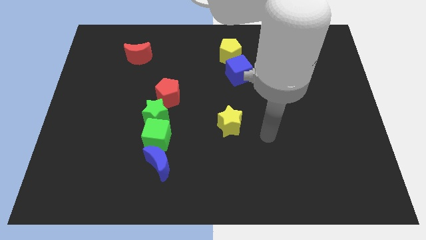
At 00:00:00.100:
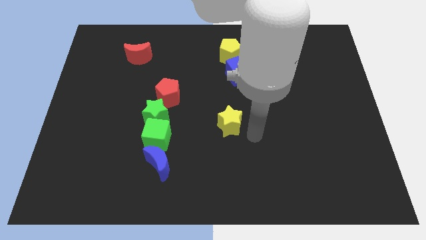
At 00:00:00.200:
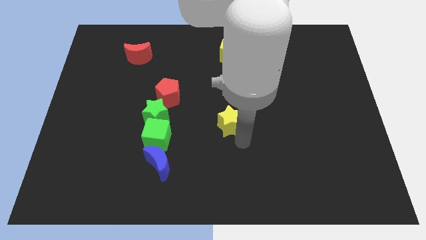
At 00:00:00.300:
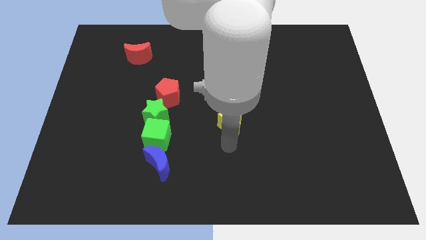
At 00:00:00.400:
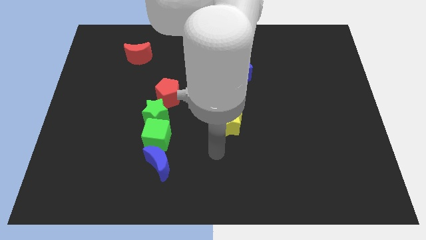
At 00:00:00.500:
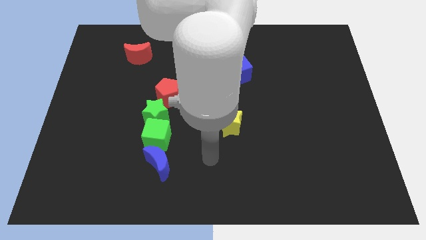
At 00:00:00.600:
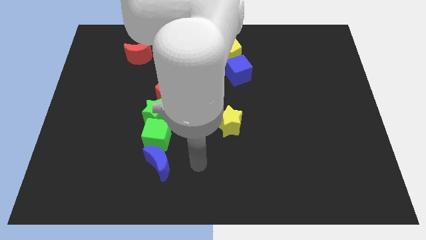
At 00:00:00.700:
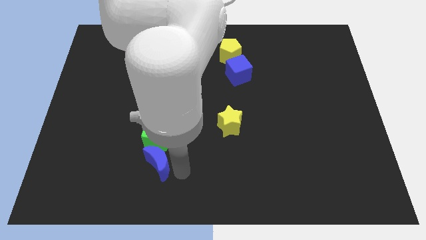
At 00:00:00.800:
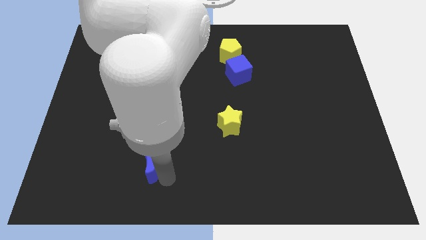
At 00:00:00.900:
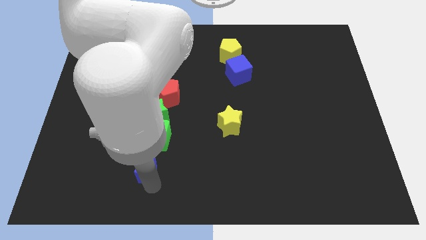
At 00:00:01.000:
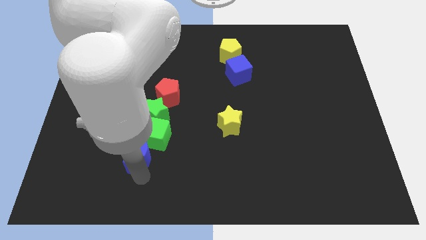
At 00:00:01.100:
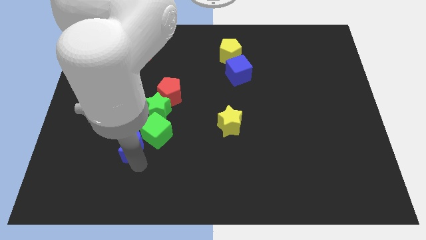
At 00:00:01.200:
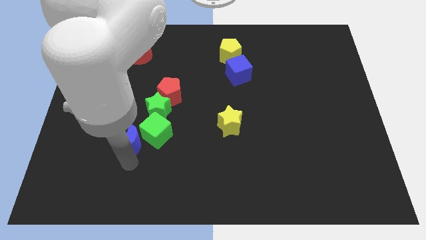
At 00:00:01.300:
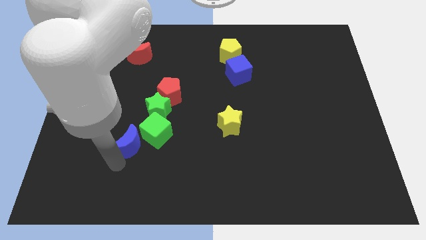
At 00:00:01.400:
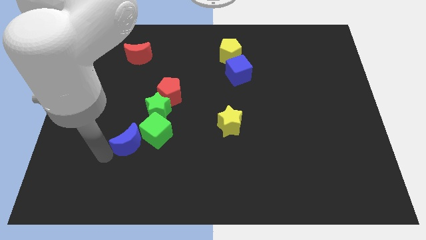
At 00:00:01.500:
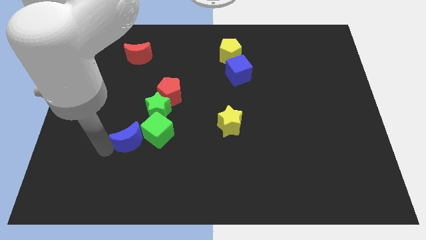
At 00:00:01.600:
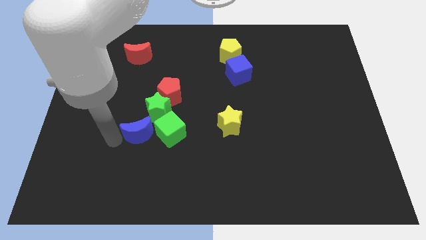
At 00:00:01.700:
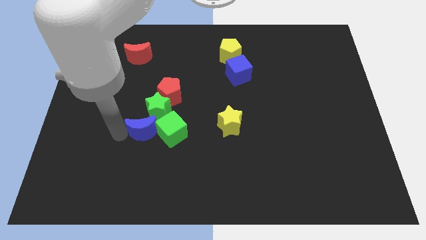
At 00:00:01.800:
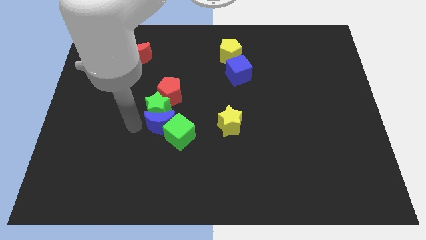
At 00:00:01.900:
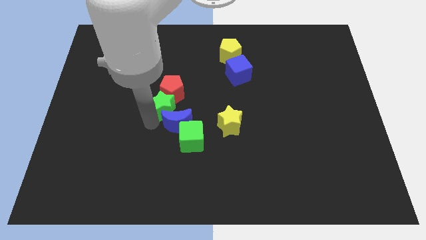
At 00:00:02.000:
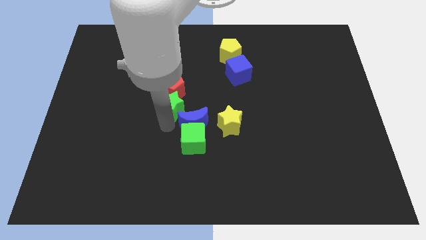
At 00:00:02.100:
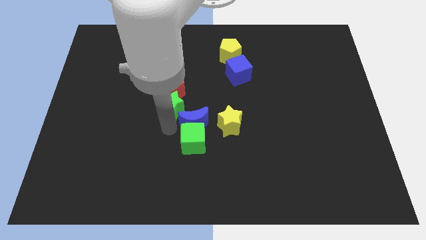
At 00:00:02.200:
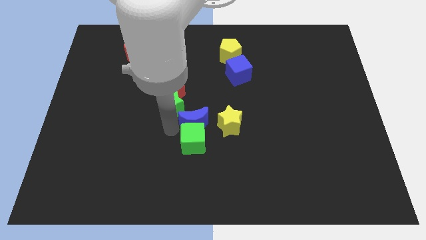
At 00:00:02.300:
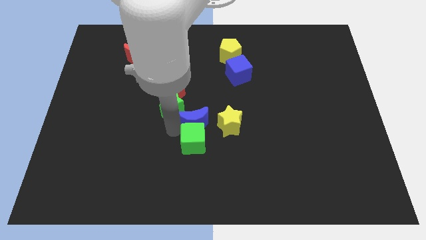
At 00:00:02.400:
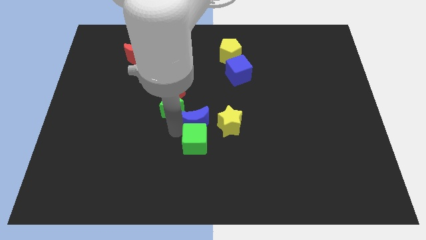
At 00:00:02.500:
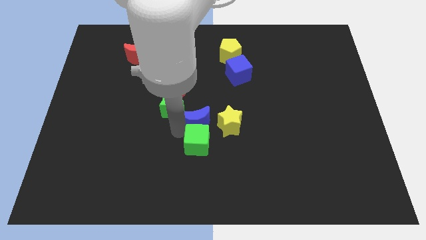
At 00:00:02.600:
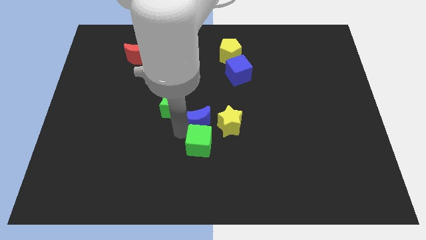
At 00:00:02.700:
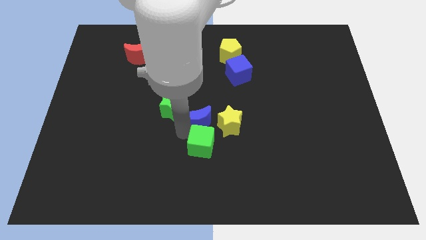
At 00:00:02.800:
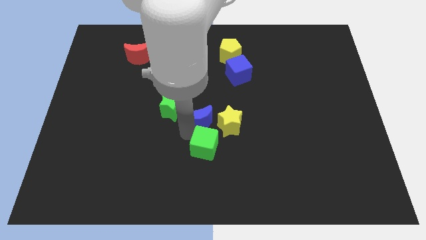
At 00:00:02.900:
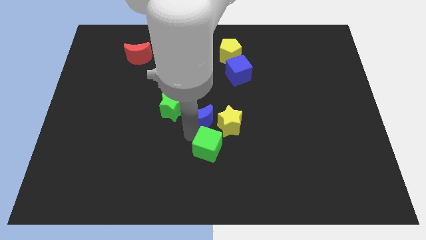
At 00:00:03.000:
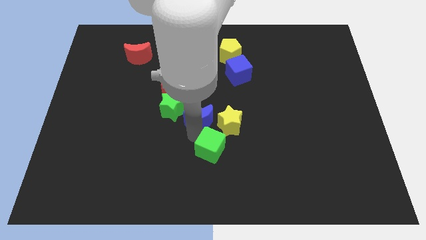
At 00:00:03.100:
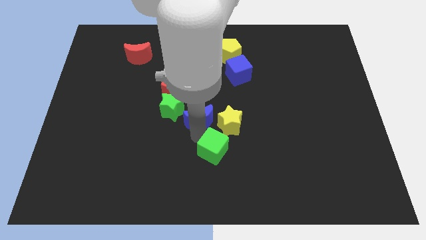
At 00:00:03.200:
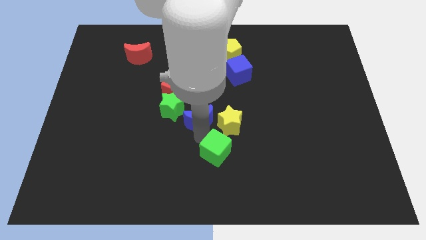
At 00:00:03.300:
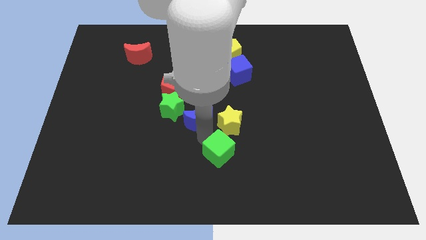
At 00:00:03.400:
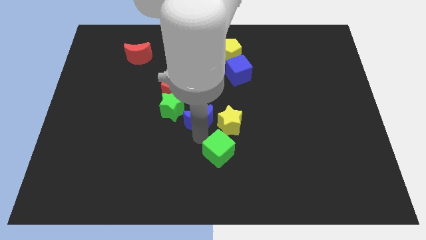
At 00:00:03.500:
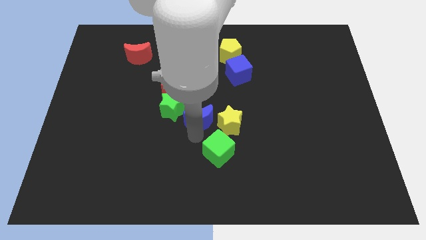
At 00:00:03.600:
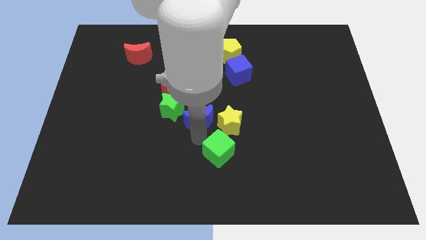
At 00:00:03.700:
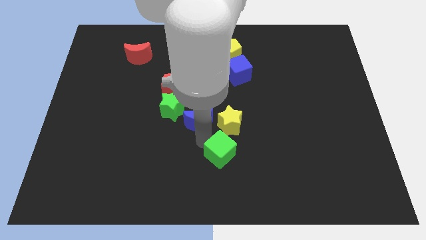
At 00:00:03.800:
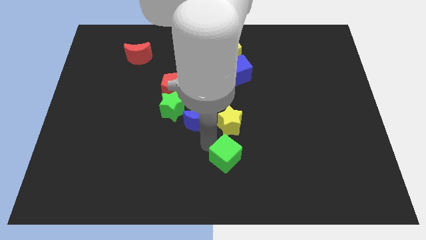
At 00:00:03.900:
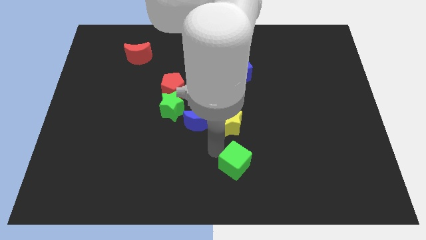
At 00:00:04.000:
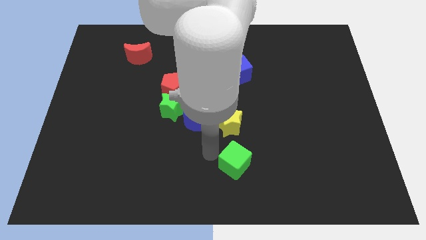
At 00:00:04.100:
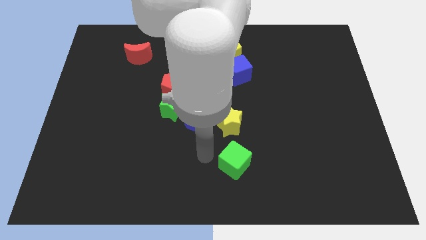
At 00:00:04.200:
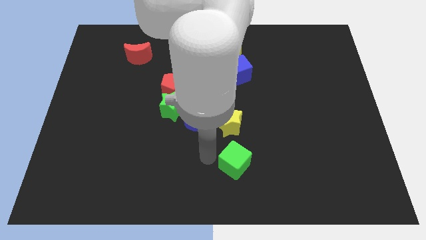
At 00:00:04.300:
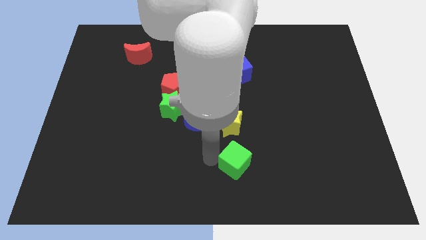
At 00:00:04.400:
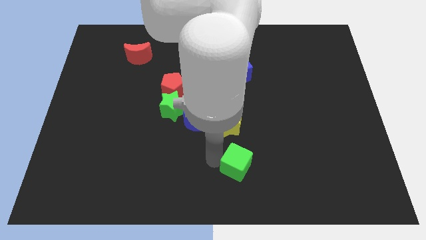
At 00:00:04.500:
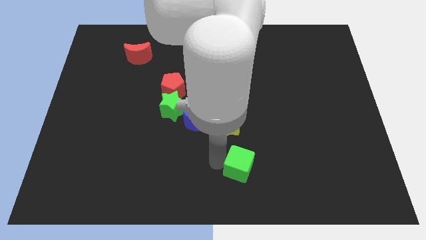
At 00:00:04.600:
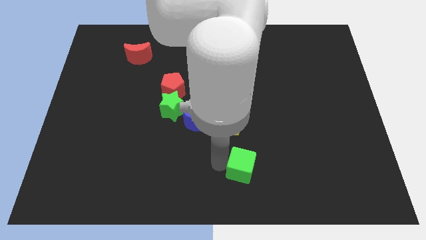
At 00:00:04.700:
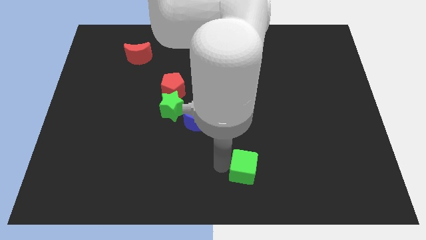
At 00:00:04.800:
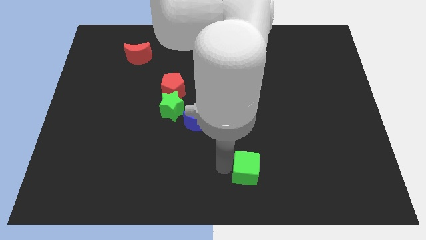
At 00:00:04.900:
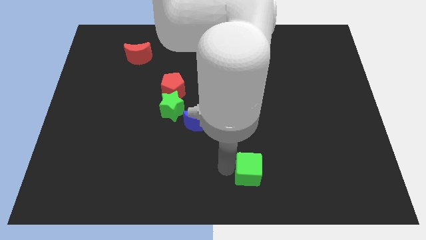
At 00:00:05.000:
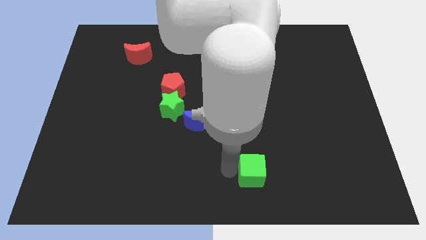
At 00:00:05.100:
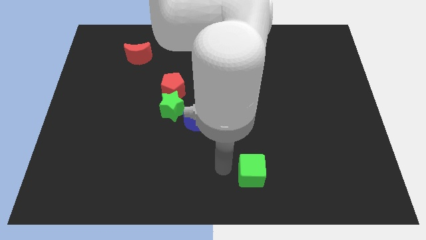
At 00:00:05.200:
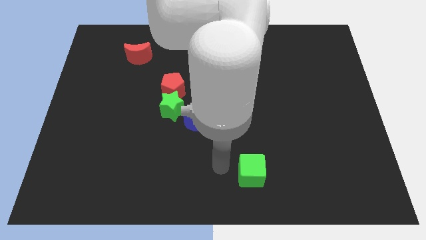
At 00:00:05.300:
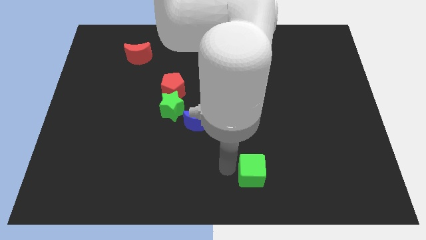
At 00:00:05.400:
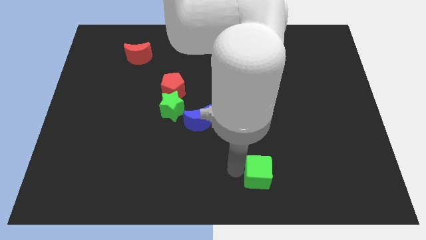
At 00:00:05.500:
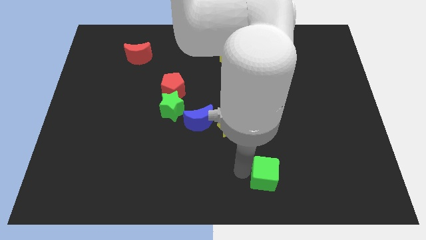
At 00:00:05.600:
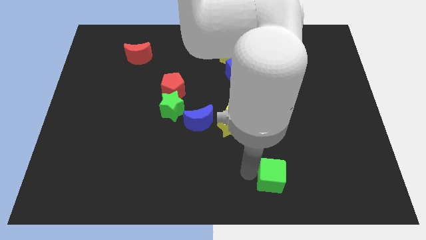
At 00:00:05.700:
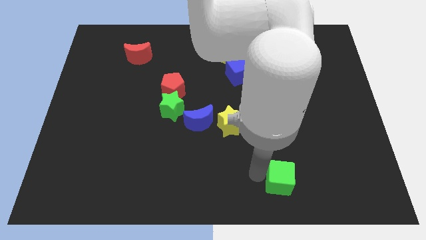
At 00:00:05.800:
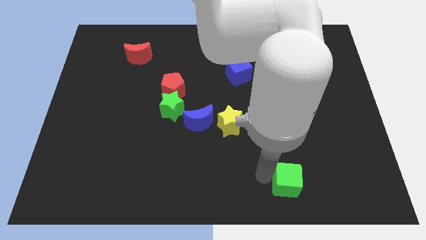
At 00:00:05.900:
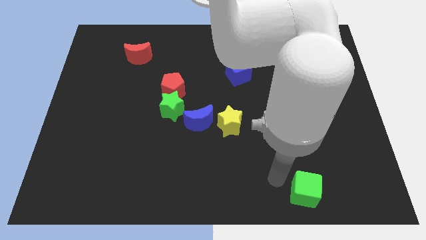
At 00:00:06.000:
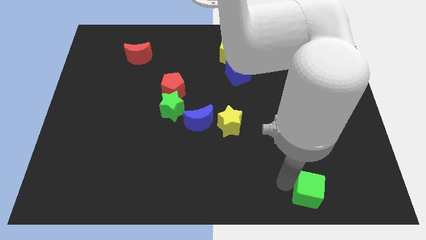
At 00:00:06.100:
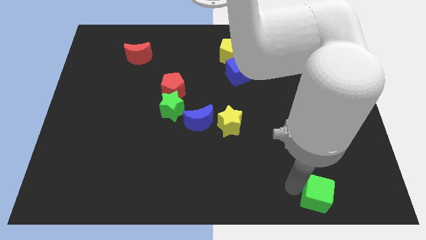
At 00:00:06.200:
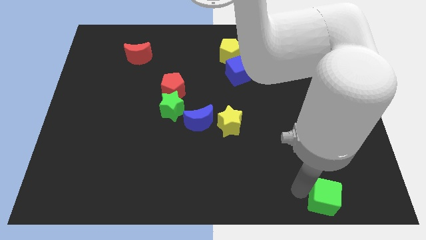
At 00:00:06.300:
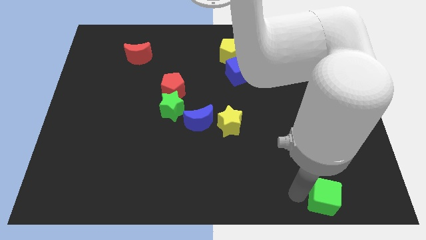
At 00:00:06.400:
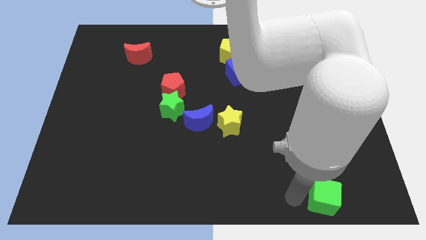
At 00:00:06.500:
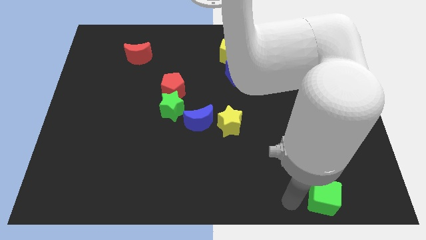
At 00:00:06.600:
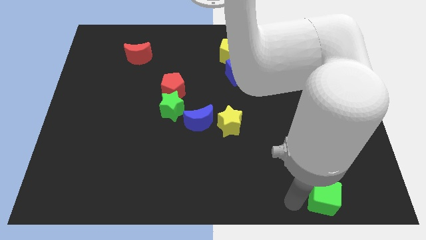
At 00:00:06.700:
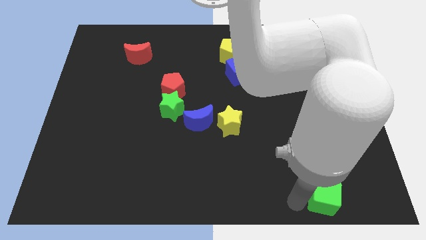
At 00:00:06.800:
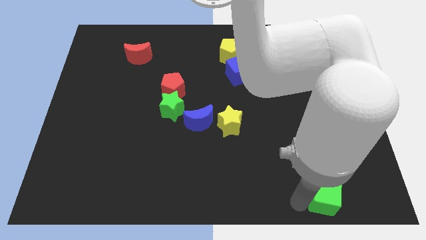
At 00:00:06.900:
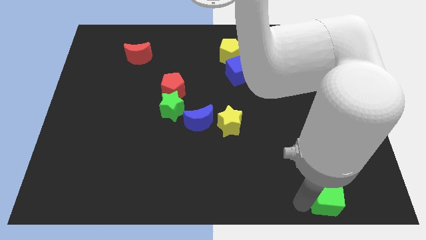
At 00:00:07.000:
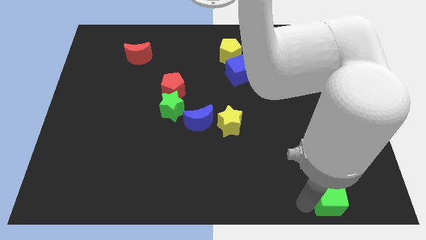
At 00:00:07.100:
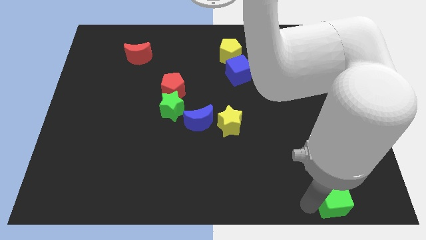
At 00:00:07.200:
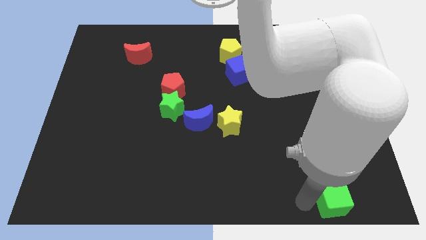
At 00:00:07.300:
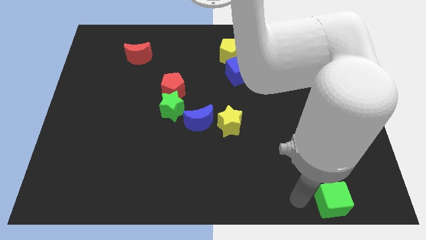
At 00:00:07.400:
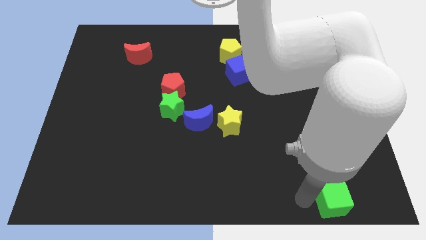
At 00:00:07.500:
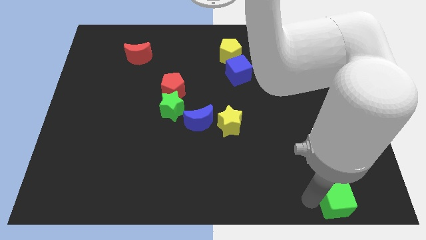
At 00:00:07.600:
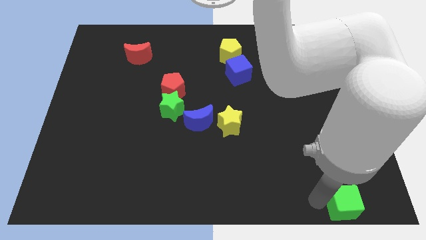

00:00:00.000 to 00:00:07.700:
move the green cube to the bottom right

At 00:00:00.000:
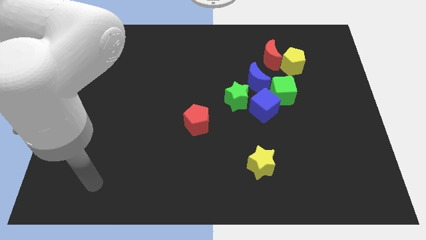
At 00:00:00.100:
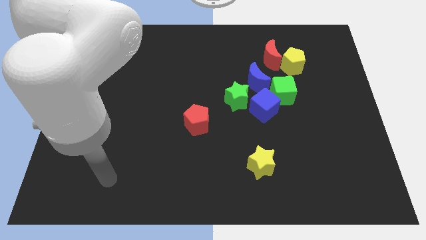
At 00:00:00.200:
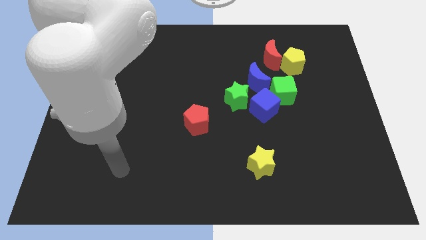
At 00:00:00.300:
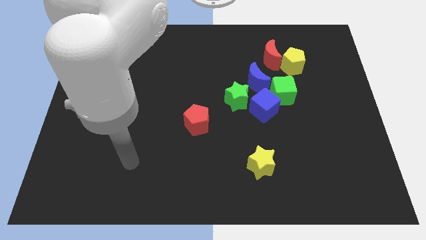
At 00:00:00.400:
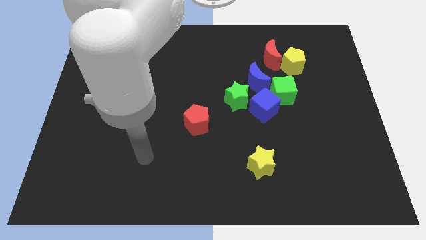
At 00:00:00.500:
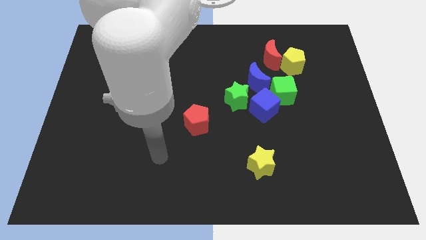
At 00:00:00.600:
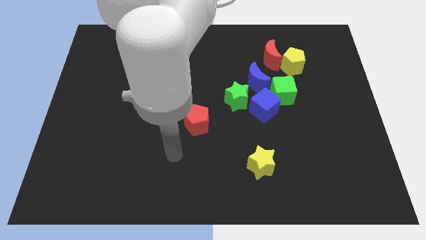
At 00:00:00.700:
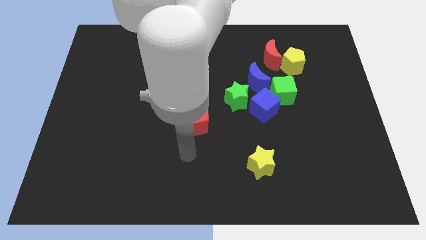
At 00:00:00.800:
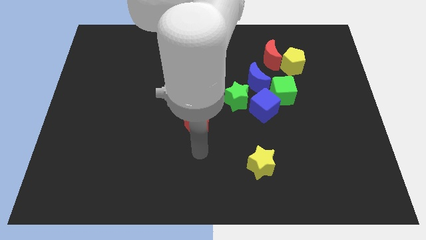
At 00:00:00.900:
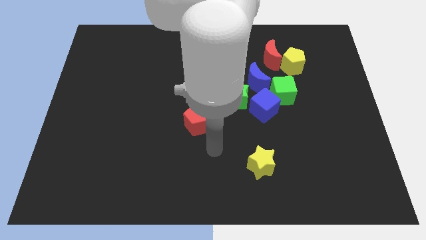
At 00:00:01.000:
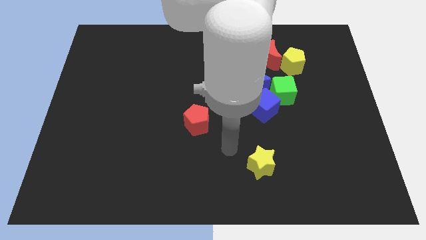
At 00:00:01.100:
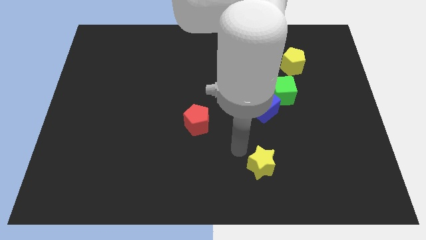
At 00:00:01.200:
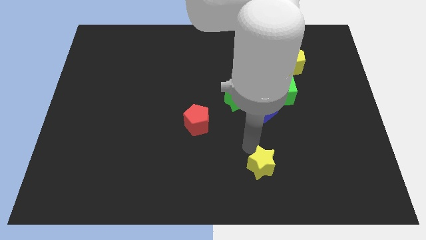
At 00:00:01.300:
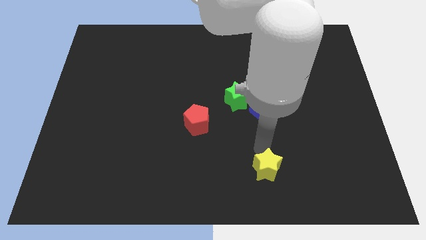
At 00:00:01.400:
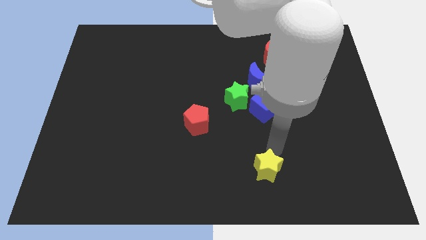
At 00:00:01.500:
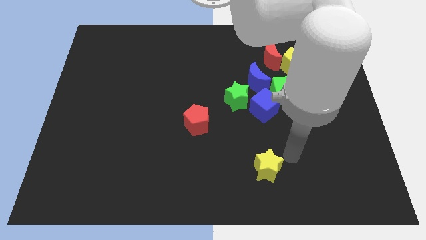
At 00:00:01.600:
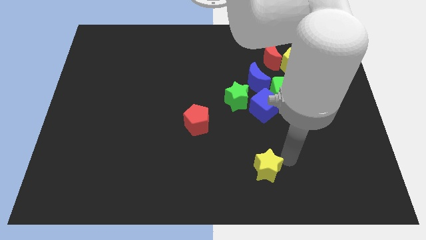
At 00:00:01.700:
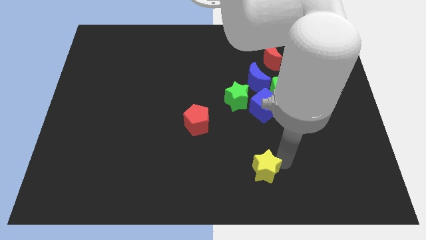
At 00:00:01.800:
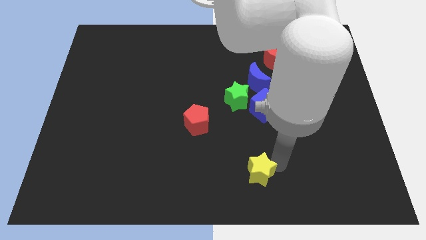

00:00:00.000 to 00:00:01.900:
push the yellow star to the bottom
